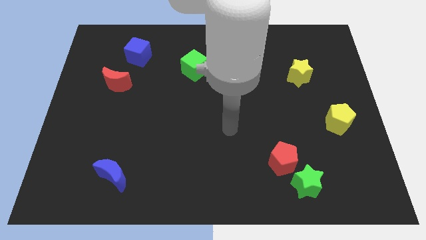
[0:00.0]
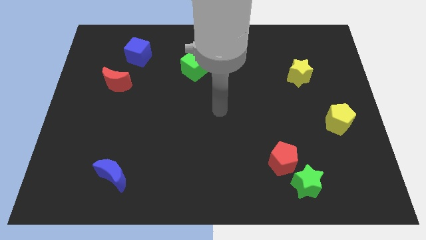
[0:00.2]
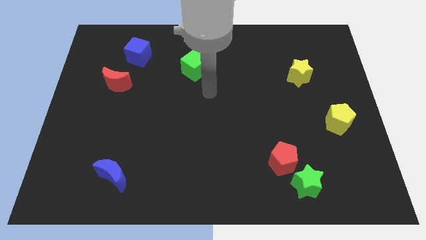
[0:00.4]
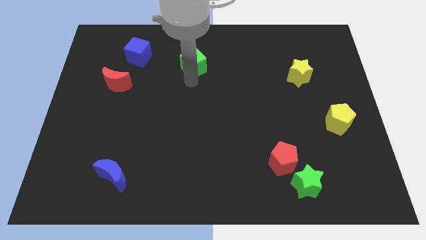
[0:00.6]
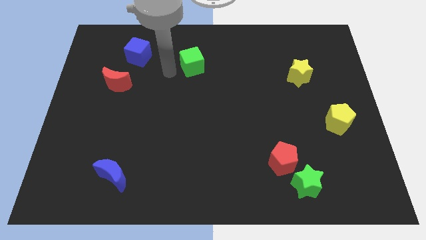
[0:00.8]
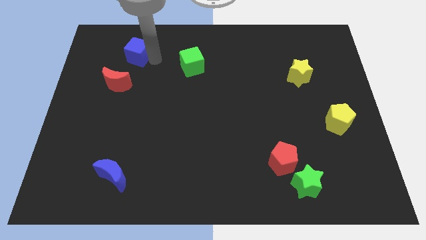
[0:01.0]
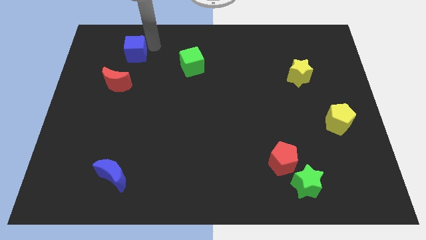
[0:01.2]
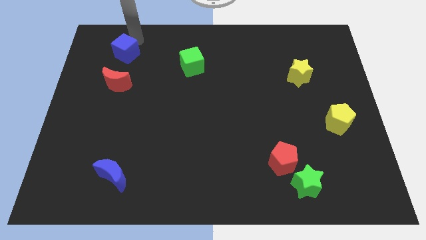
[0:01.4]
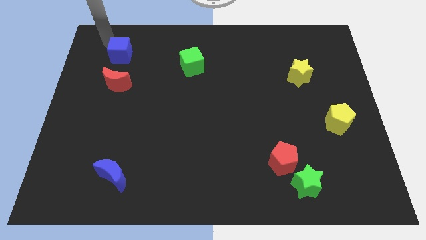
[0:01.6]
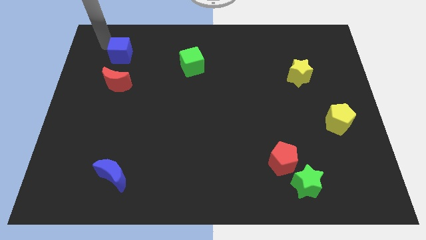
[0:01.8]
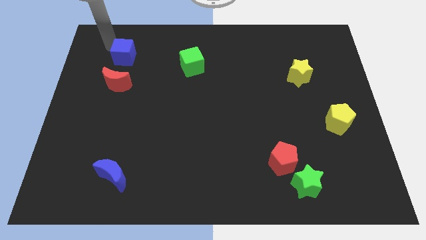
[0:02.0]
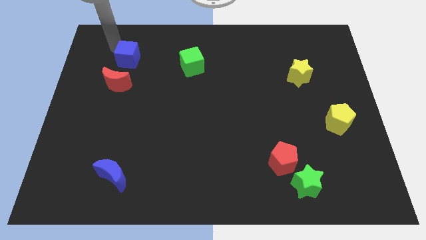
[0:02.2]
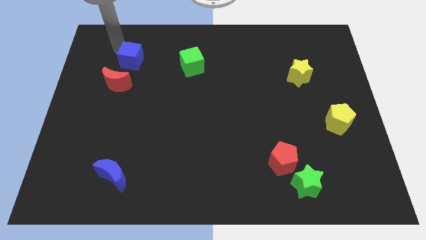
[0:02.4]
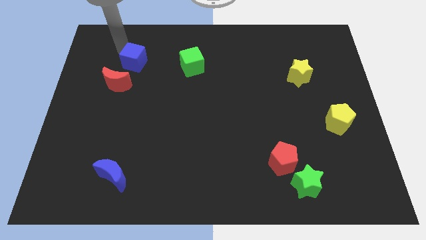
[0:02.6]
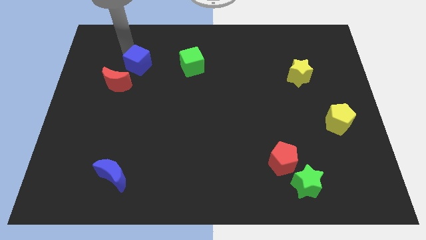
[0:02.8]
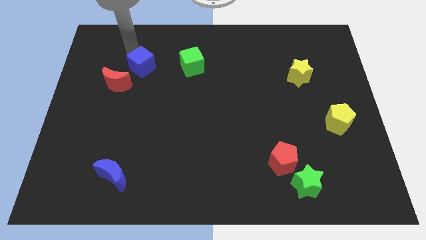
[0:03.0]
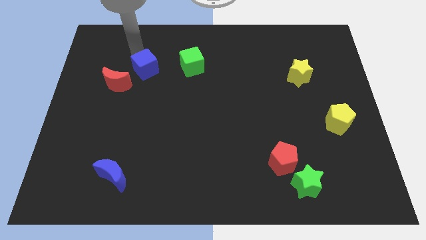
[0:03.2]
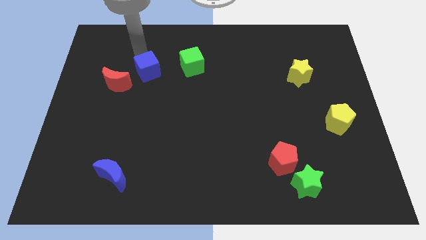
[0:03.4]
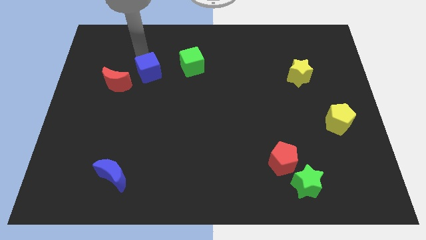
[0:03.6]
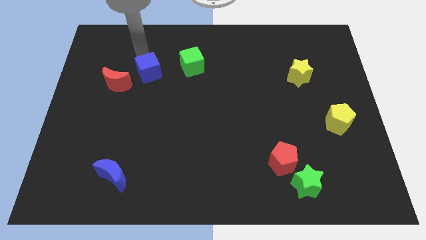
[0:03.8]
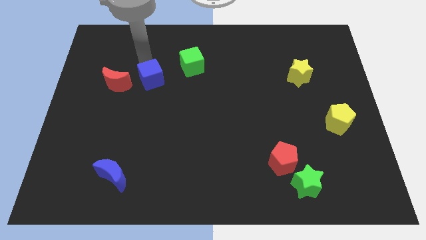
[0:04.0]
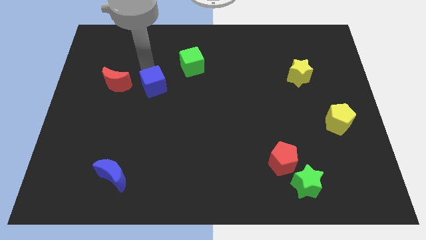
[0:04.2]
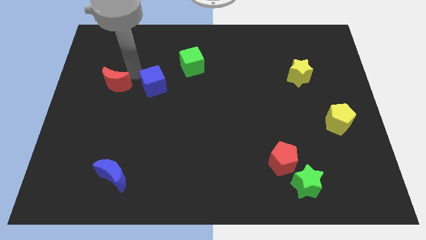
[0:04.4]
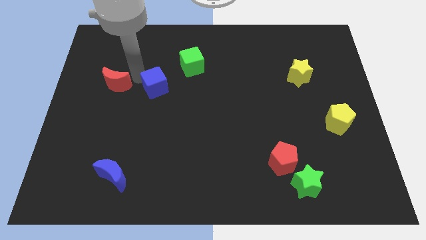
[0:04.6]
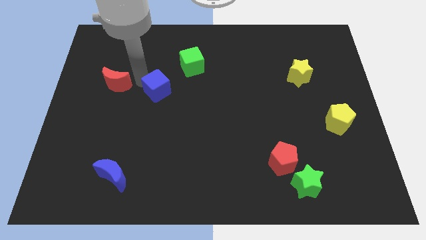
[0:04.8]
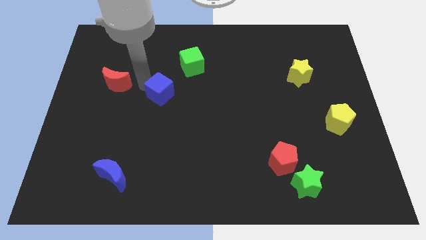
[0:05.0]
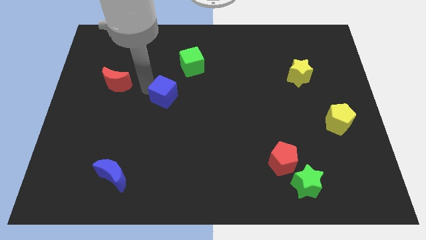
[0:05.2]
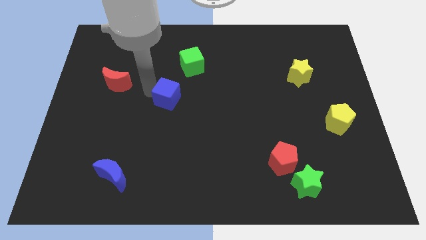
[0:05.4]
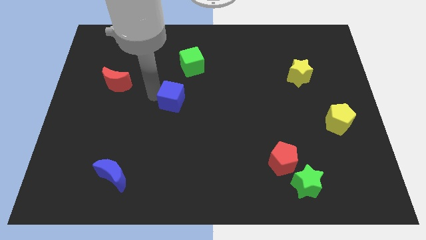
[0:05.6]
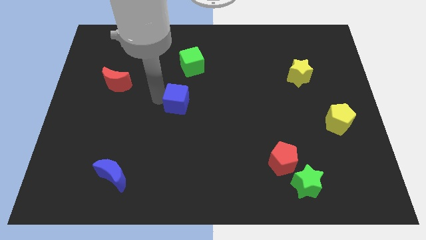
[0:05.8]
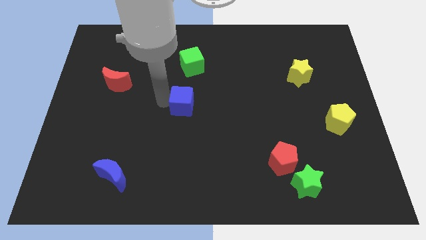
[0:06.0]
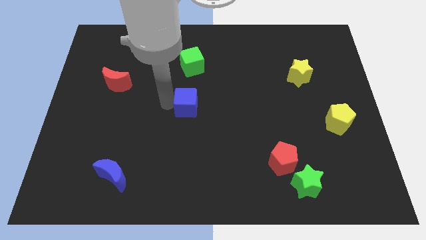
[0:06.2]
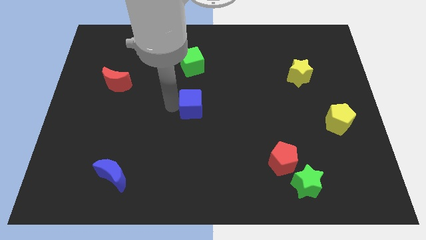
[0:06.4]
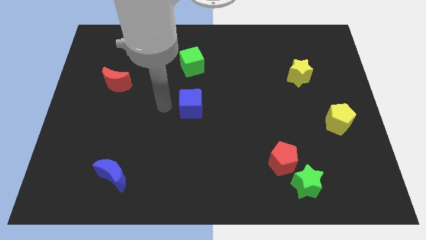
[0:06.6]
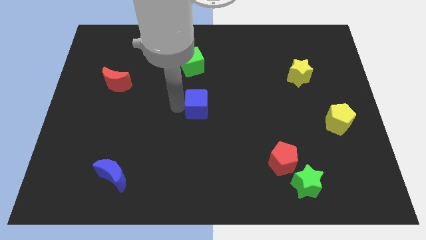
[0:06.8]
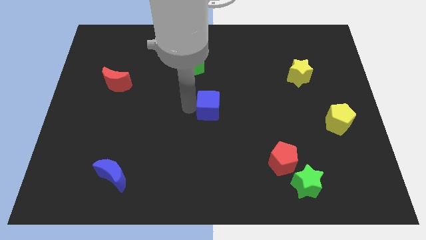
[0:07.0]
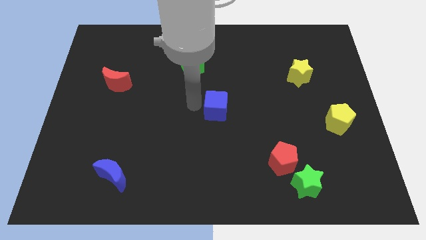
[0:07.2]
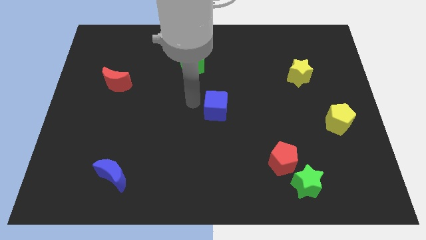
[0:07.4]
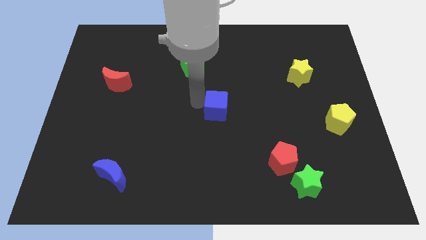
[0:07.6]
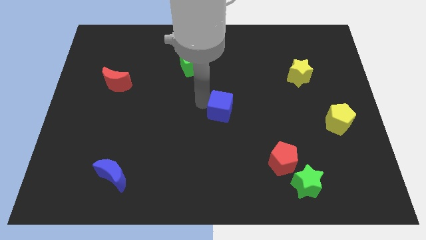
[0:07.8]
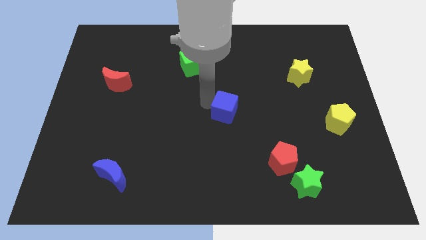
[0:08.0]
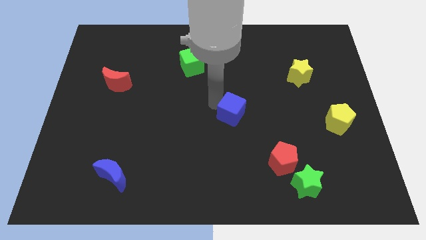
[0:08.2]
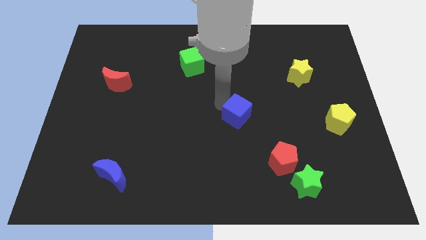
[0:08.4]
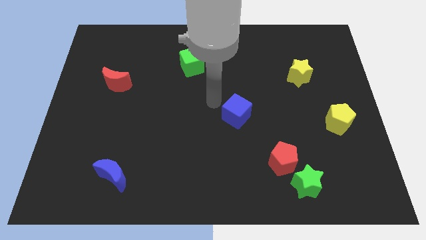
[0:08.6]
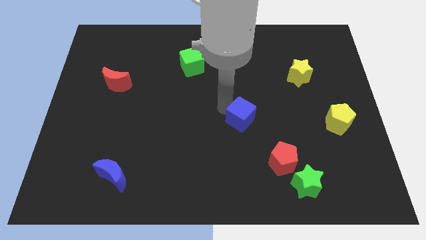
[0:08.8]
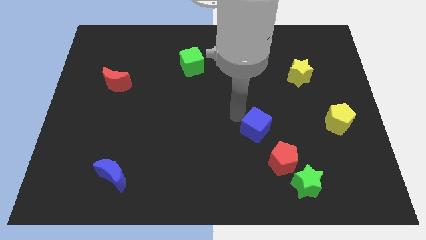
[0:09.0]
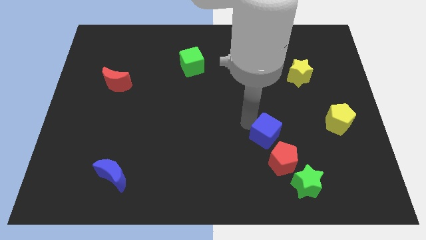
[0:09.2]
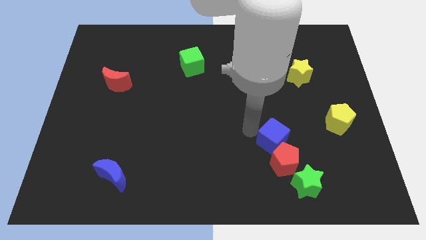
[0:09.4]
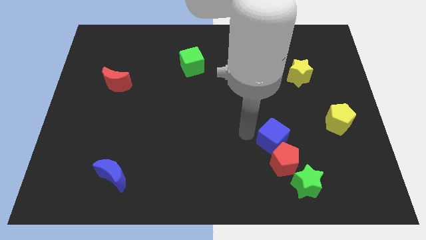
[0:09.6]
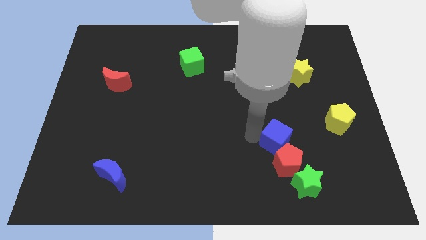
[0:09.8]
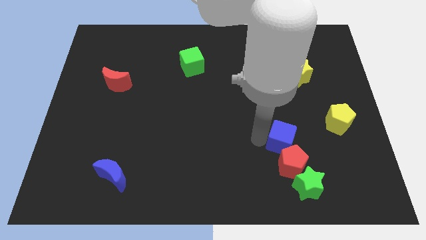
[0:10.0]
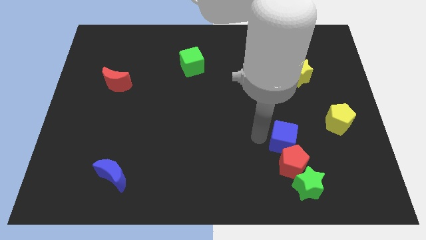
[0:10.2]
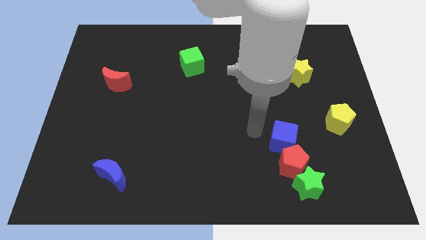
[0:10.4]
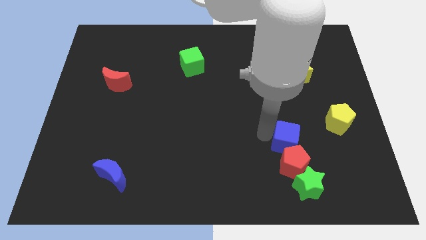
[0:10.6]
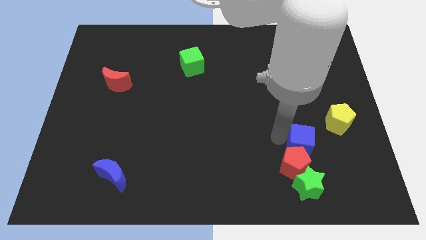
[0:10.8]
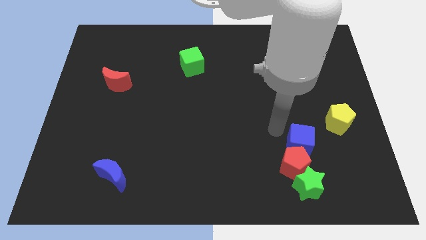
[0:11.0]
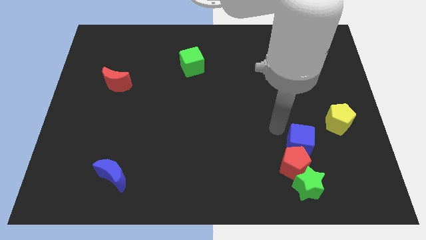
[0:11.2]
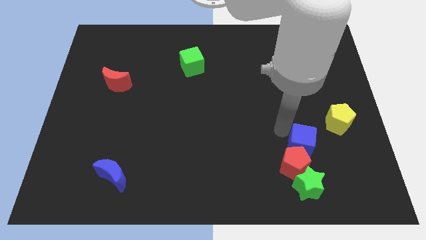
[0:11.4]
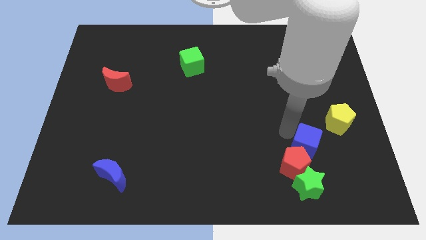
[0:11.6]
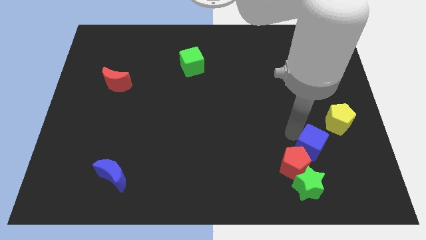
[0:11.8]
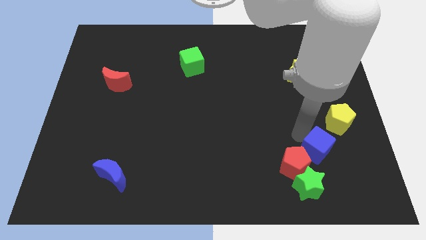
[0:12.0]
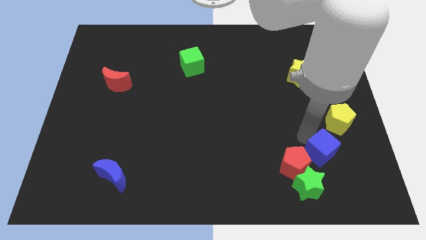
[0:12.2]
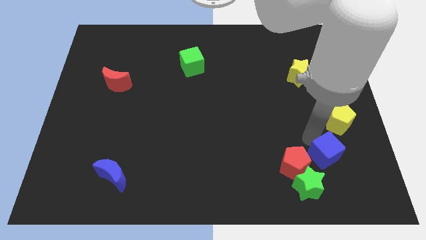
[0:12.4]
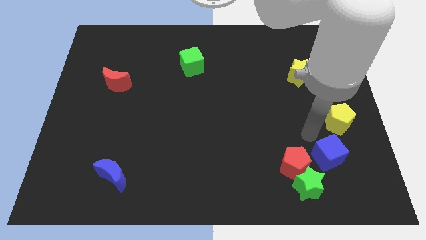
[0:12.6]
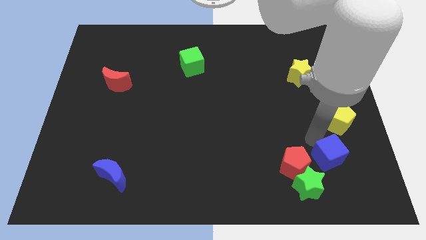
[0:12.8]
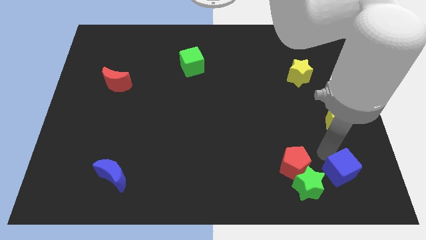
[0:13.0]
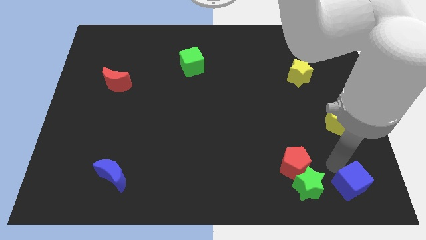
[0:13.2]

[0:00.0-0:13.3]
slide the blue cube to the bottom right
